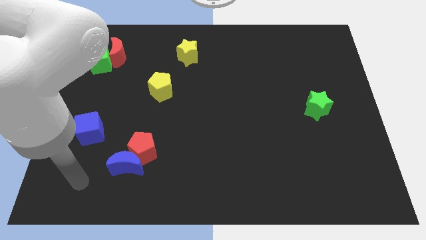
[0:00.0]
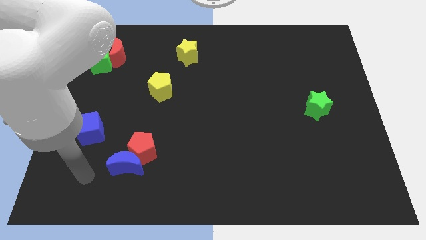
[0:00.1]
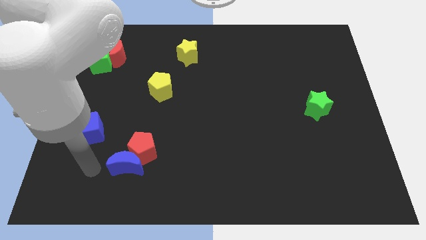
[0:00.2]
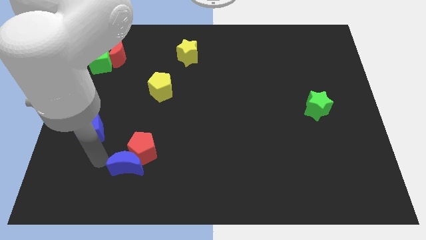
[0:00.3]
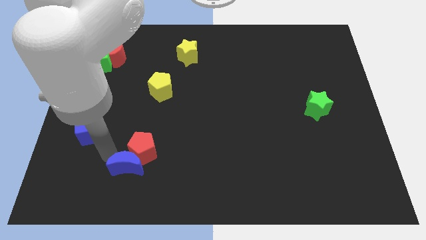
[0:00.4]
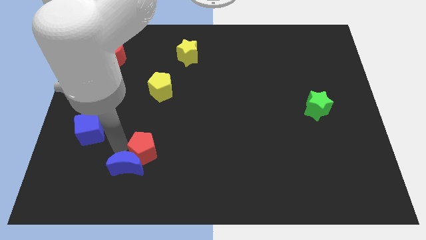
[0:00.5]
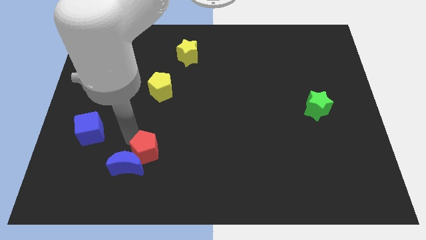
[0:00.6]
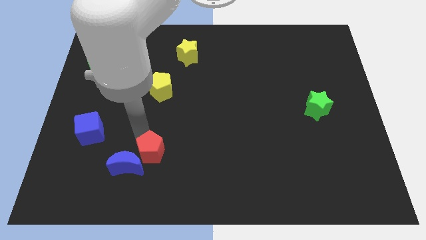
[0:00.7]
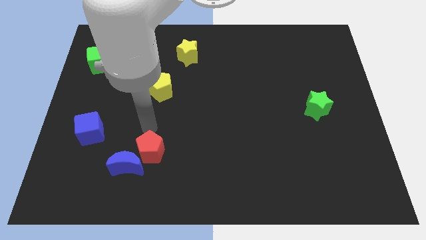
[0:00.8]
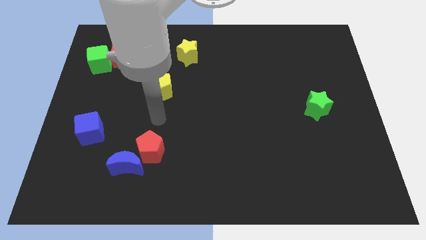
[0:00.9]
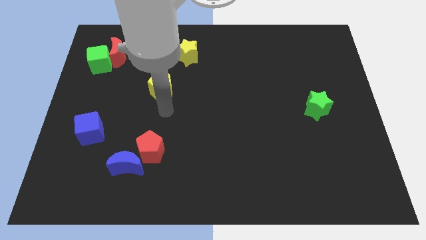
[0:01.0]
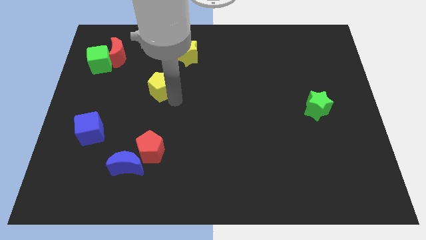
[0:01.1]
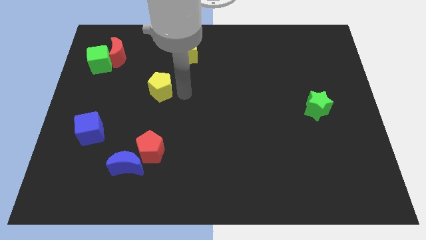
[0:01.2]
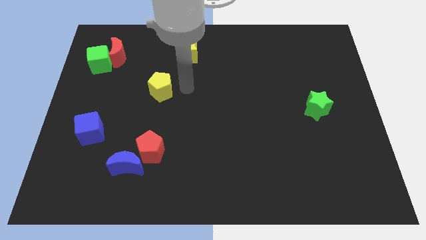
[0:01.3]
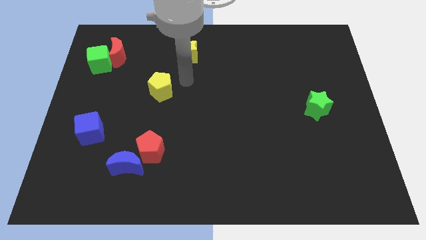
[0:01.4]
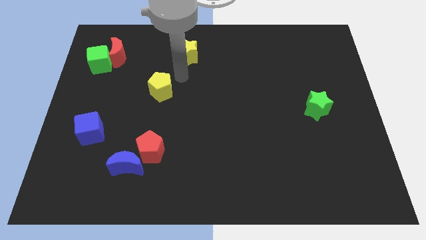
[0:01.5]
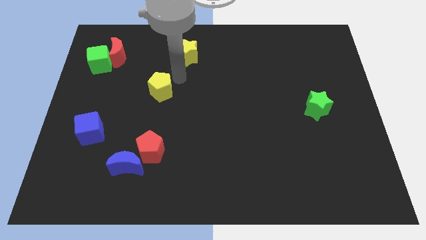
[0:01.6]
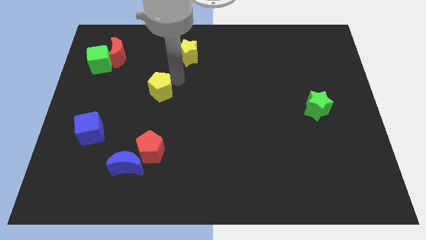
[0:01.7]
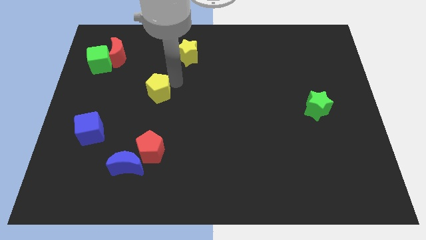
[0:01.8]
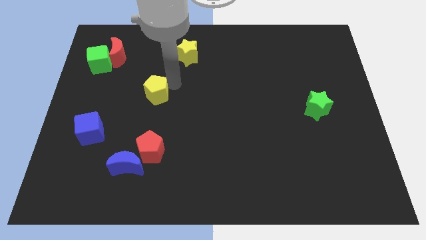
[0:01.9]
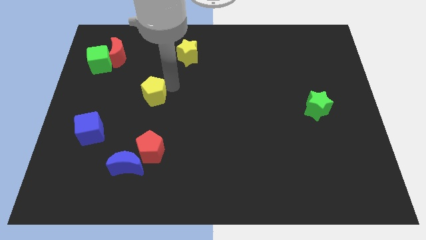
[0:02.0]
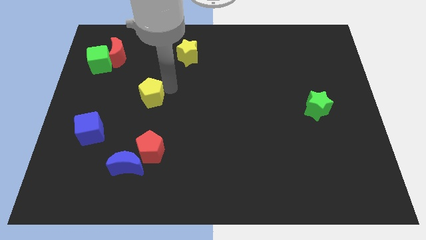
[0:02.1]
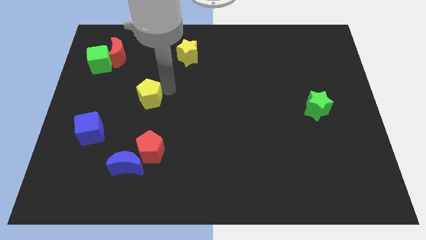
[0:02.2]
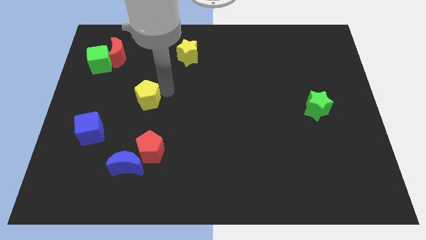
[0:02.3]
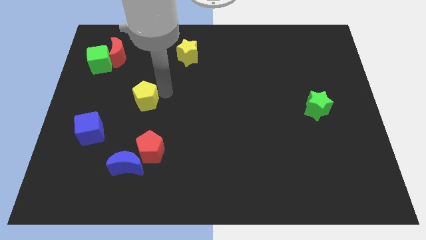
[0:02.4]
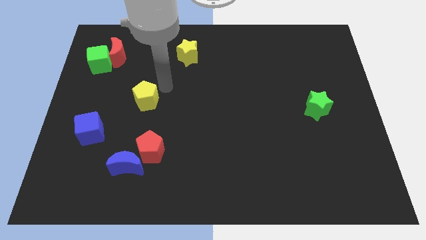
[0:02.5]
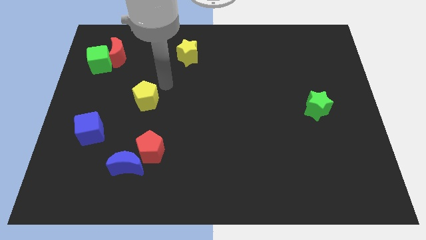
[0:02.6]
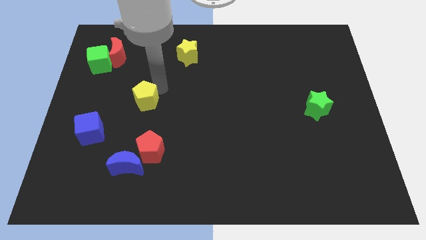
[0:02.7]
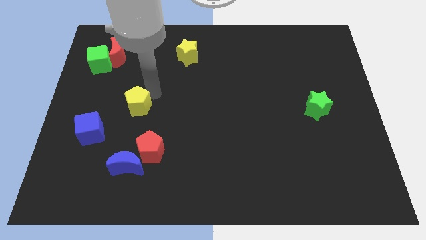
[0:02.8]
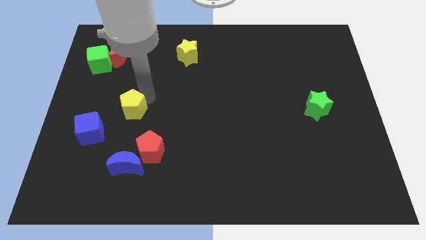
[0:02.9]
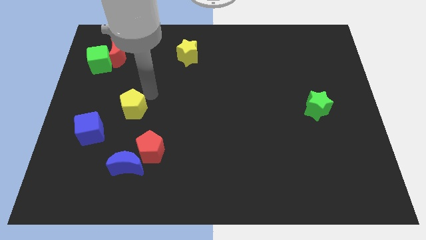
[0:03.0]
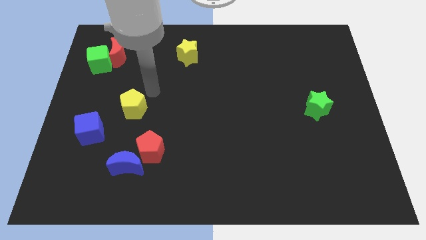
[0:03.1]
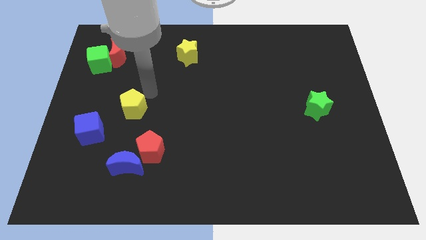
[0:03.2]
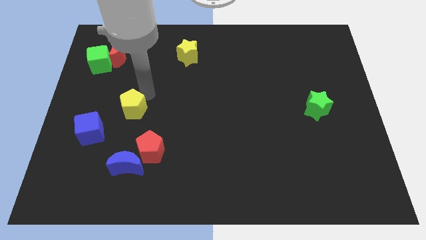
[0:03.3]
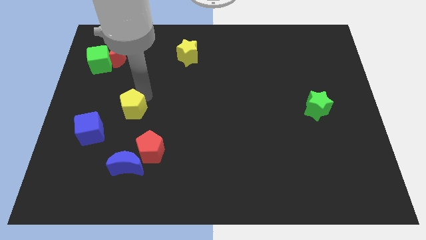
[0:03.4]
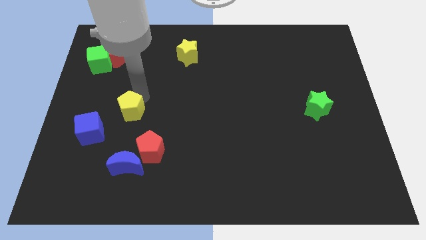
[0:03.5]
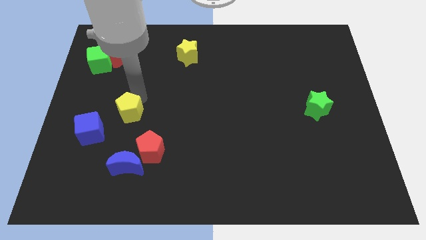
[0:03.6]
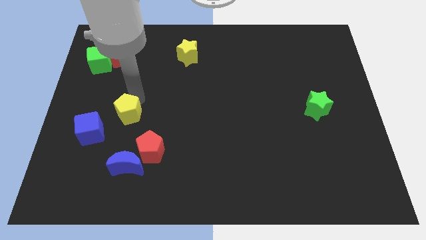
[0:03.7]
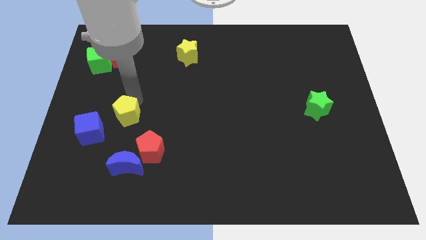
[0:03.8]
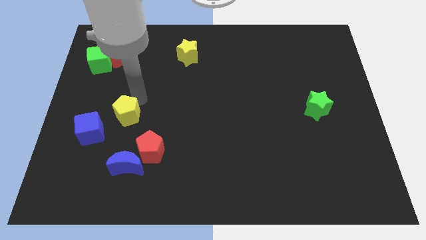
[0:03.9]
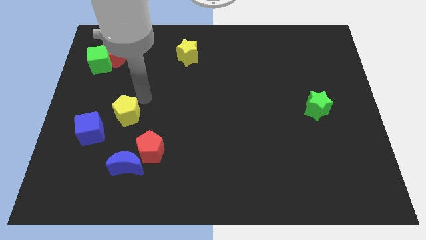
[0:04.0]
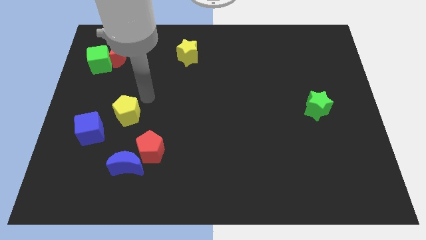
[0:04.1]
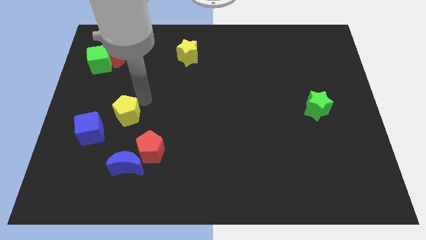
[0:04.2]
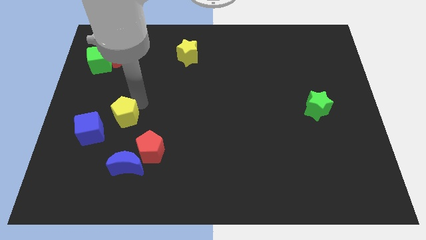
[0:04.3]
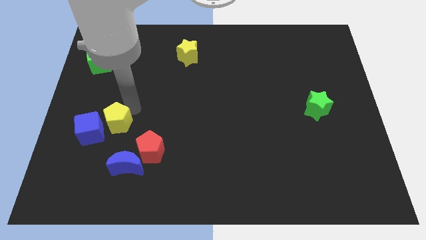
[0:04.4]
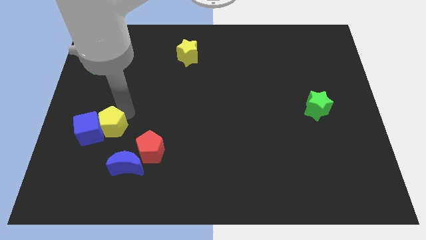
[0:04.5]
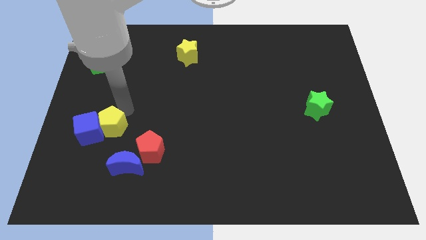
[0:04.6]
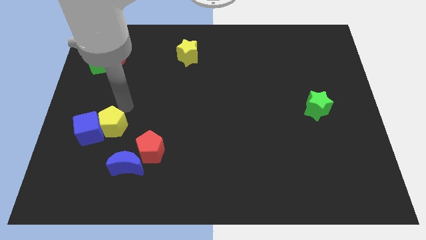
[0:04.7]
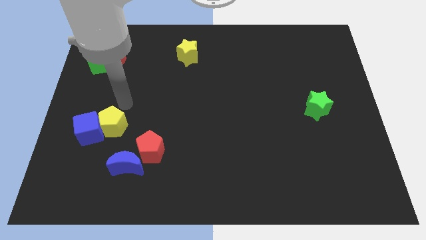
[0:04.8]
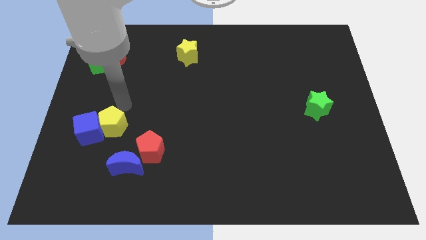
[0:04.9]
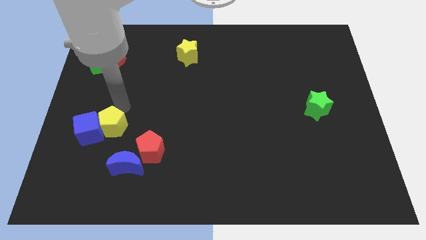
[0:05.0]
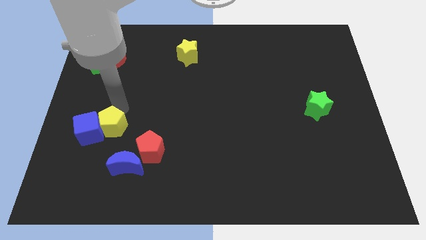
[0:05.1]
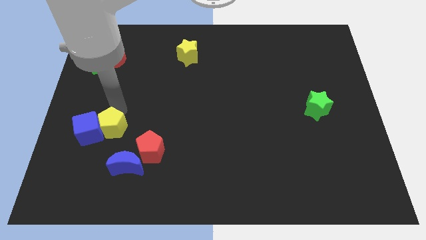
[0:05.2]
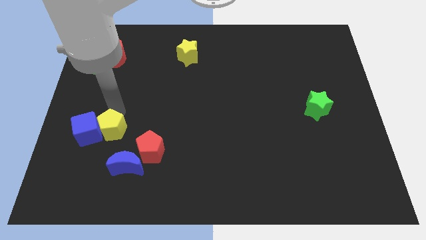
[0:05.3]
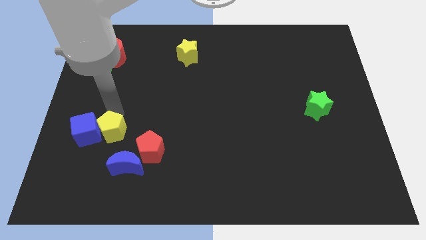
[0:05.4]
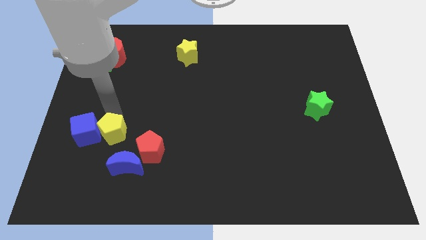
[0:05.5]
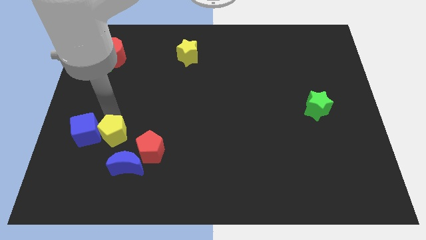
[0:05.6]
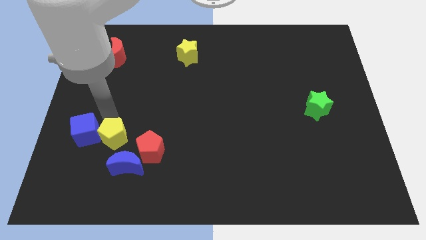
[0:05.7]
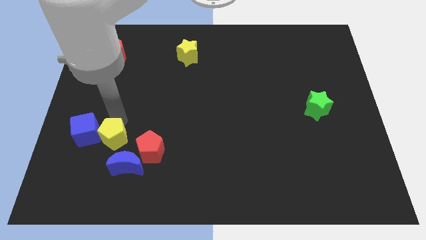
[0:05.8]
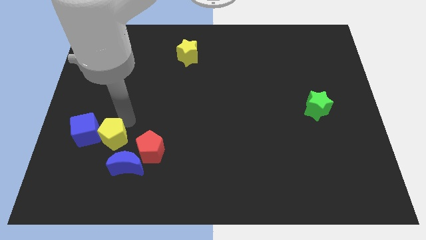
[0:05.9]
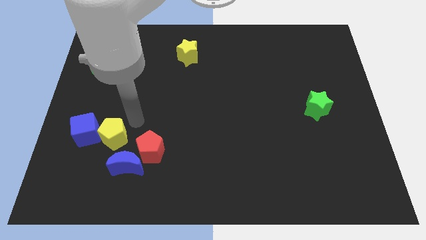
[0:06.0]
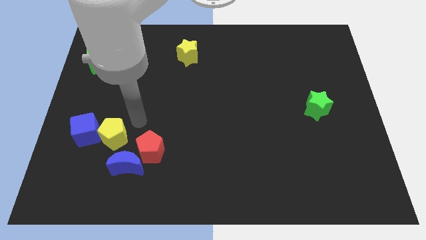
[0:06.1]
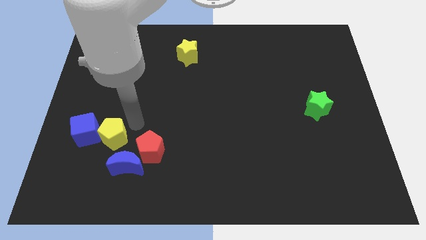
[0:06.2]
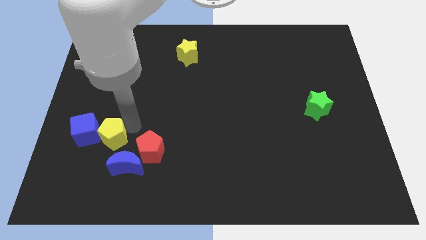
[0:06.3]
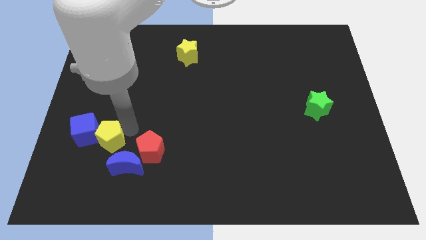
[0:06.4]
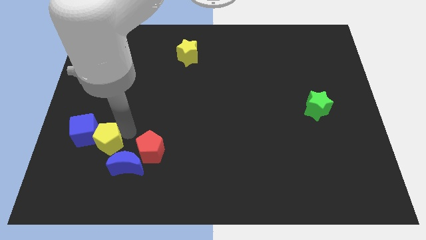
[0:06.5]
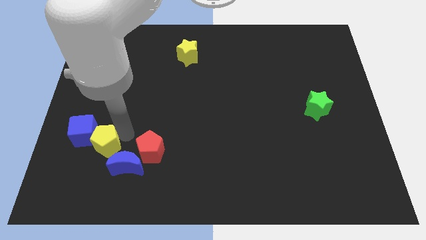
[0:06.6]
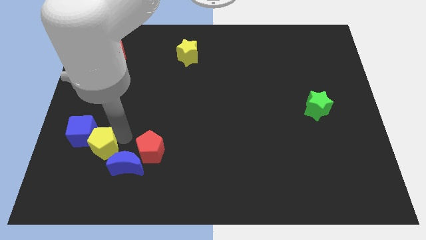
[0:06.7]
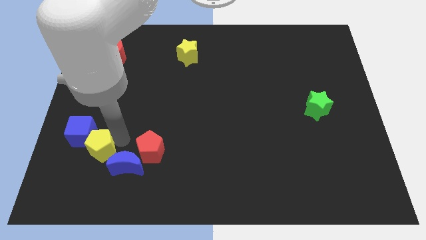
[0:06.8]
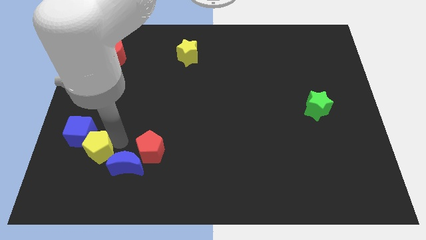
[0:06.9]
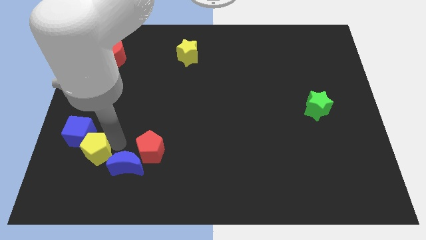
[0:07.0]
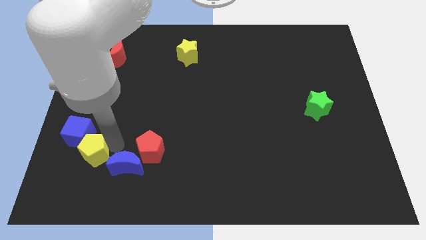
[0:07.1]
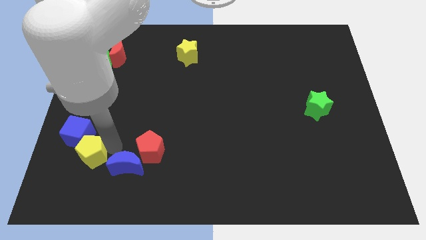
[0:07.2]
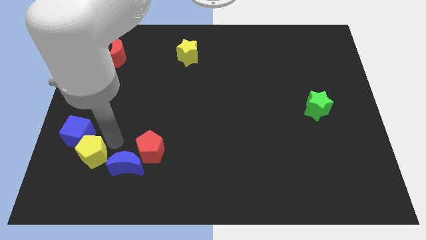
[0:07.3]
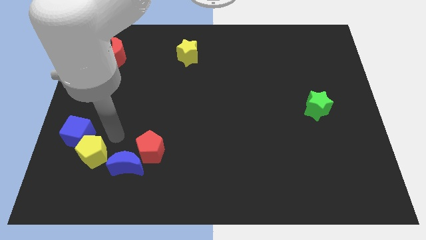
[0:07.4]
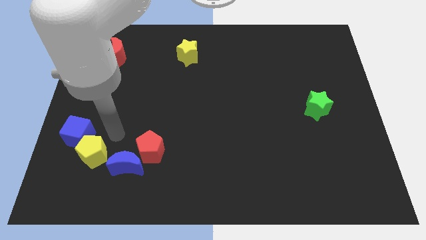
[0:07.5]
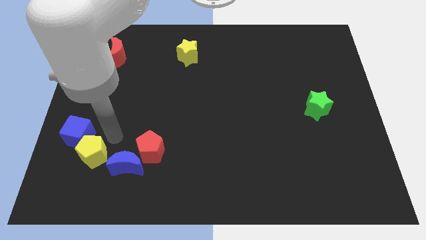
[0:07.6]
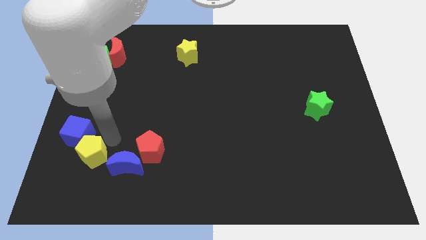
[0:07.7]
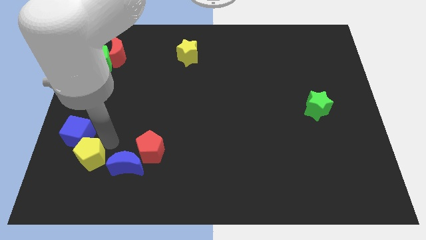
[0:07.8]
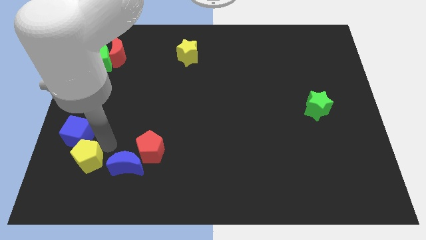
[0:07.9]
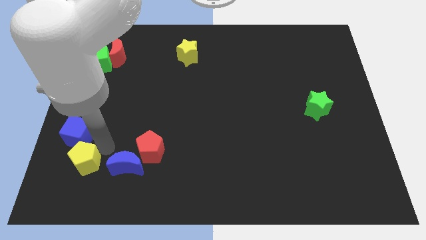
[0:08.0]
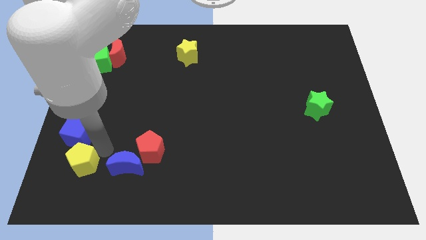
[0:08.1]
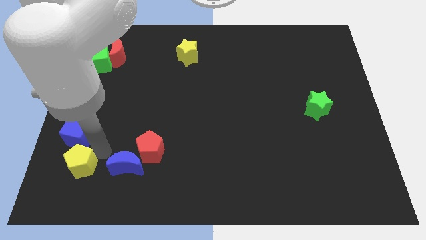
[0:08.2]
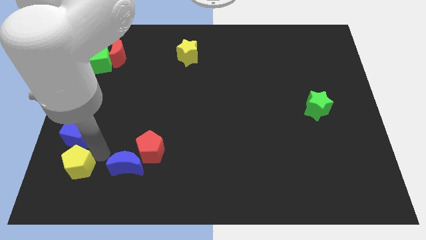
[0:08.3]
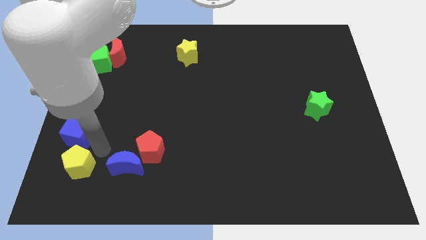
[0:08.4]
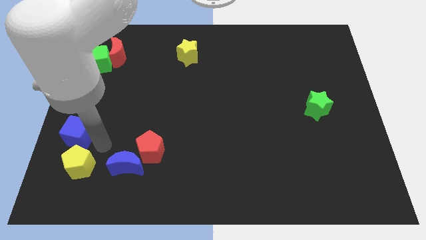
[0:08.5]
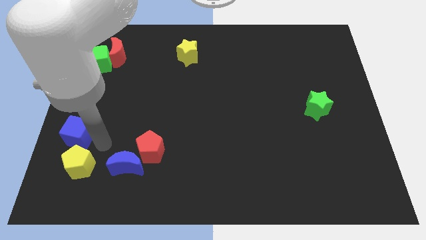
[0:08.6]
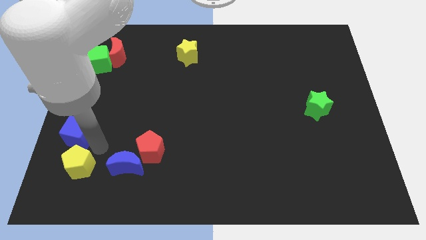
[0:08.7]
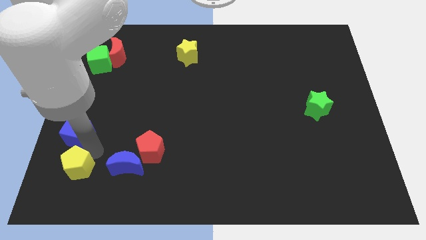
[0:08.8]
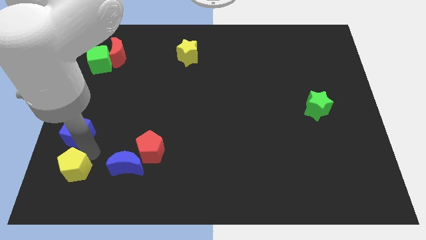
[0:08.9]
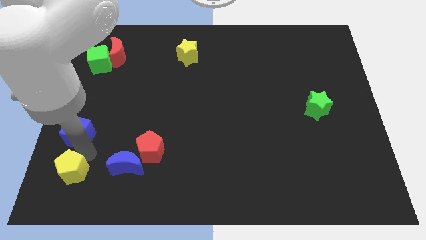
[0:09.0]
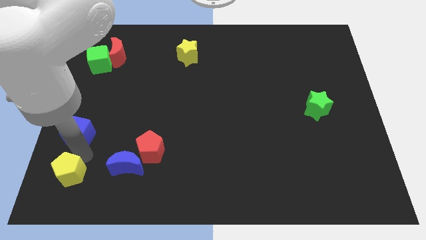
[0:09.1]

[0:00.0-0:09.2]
put the yellow pentagon to the lower left corner
